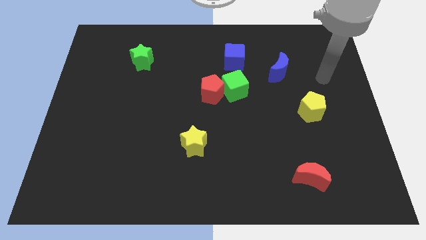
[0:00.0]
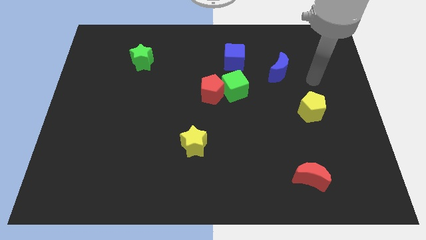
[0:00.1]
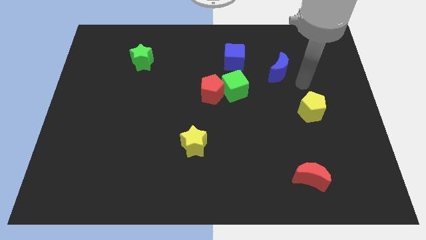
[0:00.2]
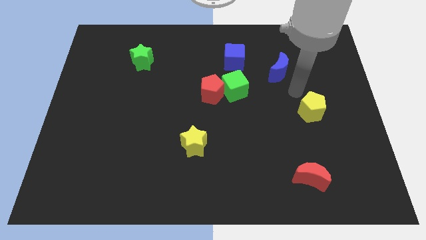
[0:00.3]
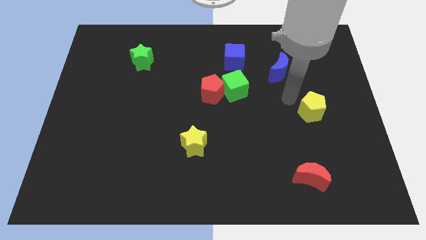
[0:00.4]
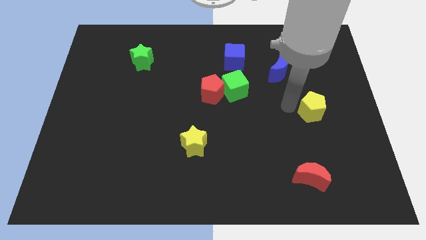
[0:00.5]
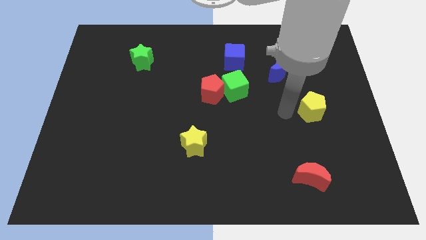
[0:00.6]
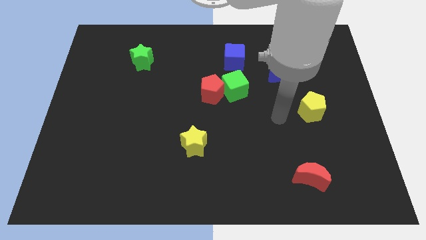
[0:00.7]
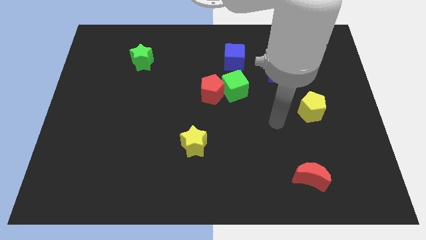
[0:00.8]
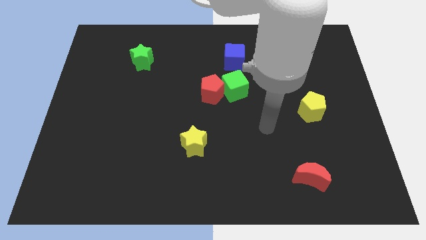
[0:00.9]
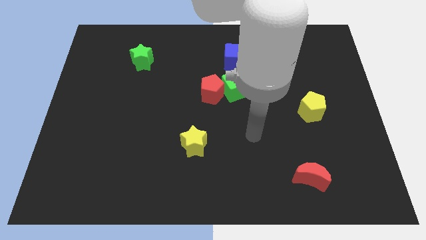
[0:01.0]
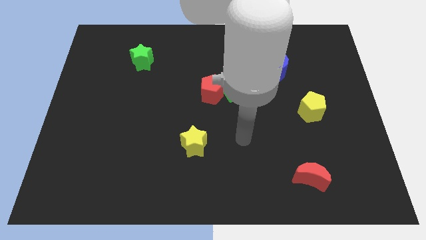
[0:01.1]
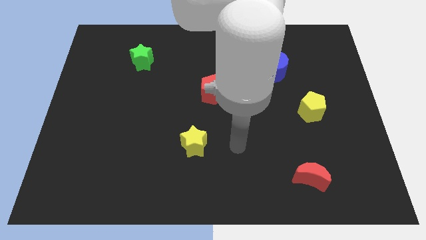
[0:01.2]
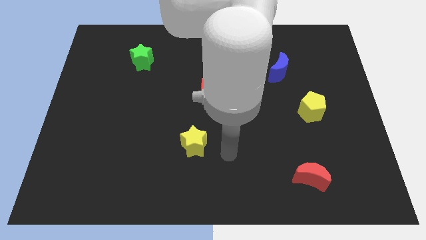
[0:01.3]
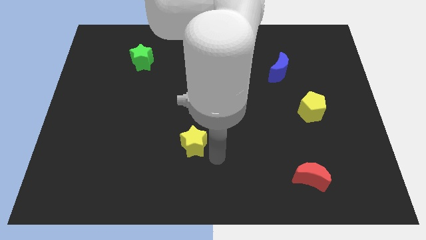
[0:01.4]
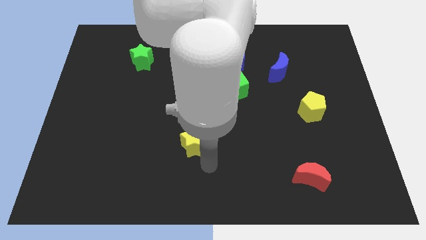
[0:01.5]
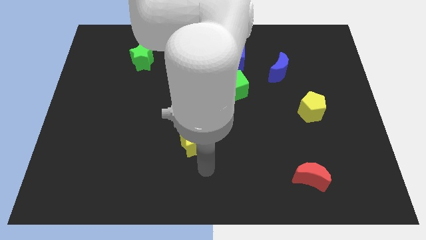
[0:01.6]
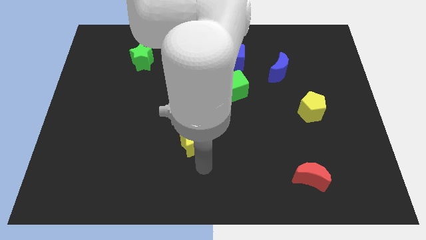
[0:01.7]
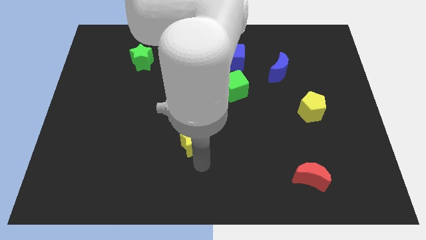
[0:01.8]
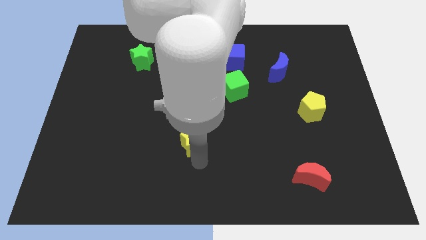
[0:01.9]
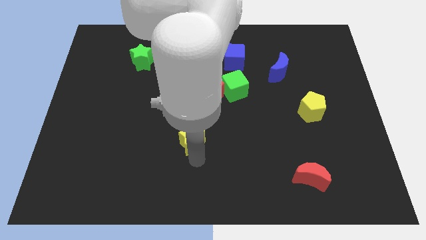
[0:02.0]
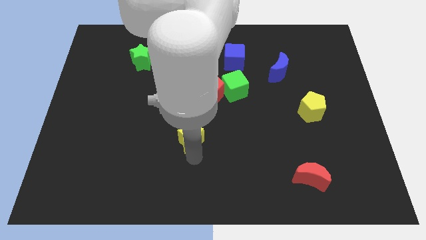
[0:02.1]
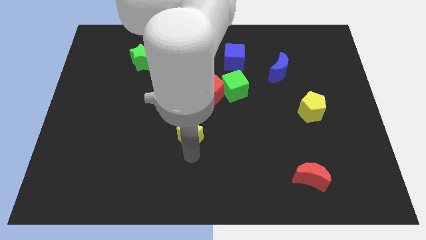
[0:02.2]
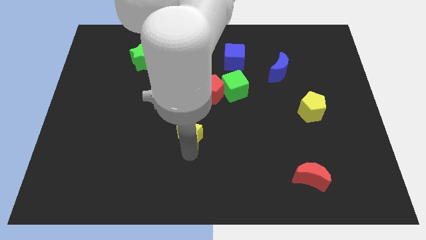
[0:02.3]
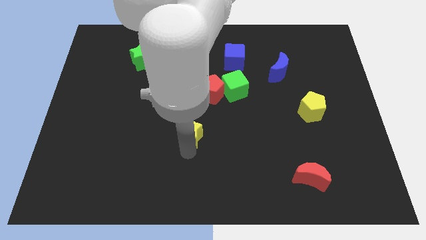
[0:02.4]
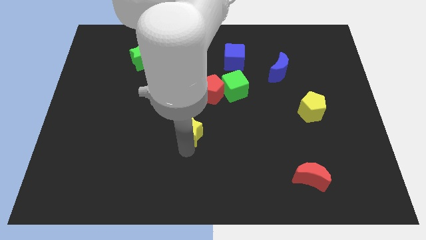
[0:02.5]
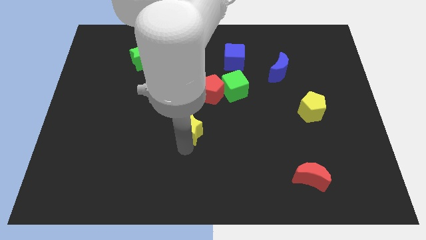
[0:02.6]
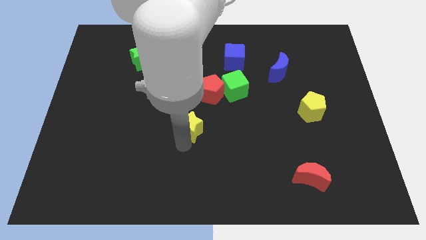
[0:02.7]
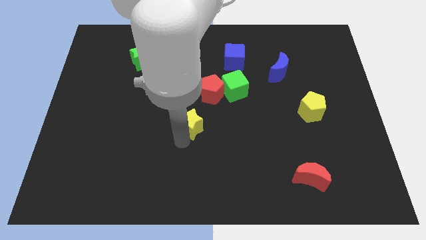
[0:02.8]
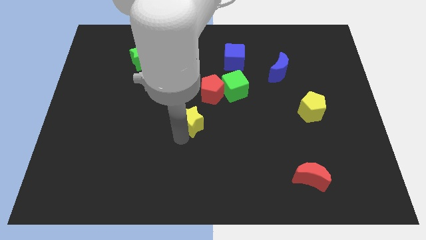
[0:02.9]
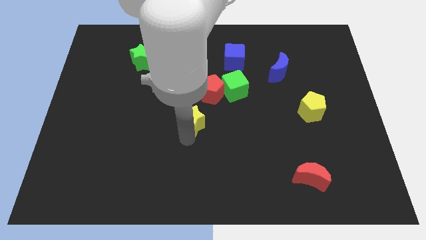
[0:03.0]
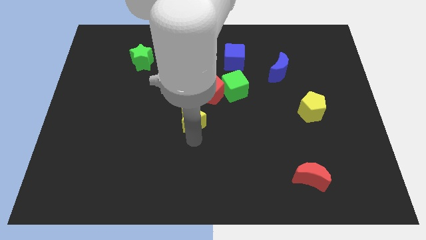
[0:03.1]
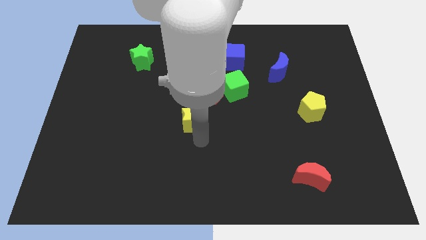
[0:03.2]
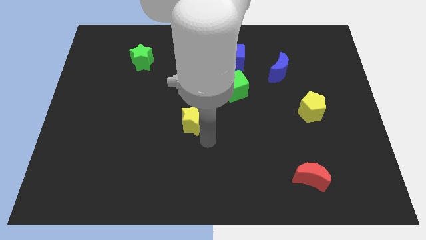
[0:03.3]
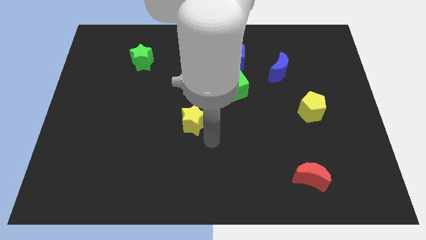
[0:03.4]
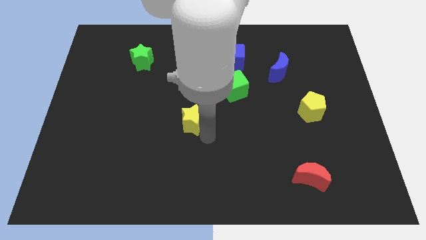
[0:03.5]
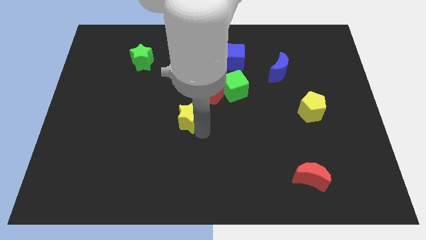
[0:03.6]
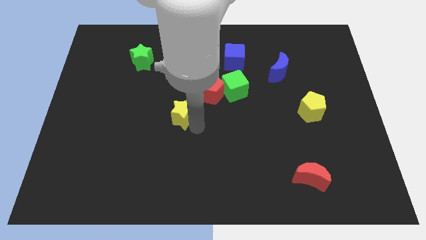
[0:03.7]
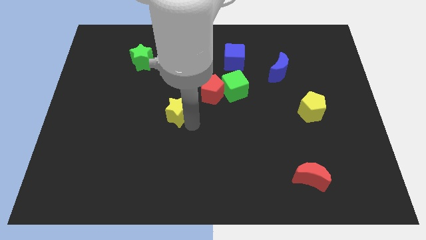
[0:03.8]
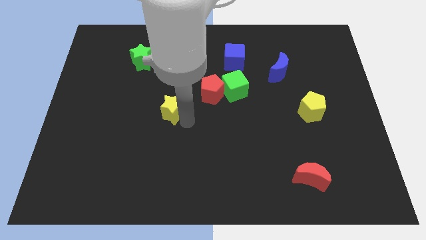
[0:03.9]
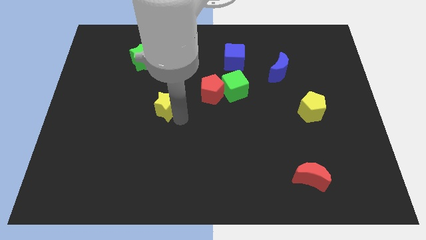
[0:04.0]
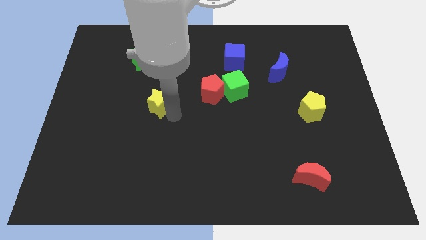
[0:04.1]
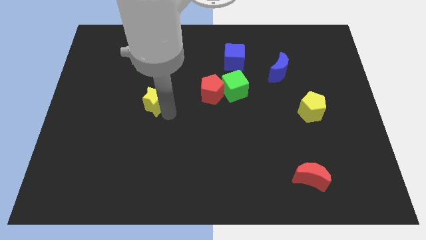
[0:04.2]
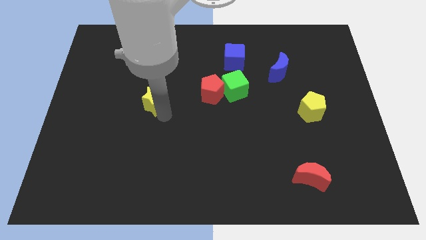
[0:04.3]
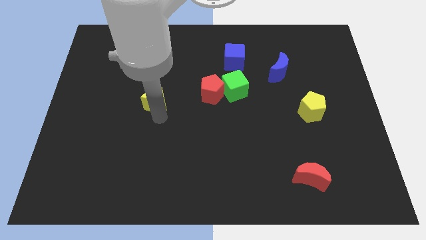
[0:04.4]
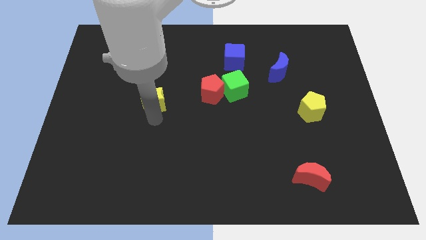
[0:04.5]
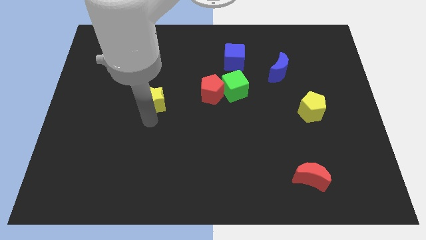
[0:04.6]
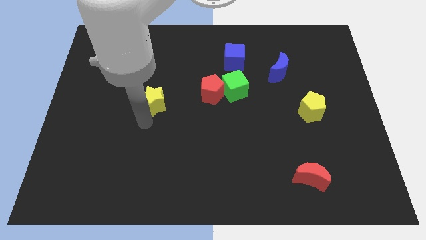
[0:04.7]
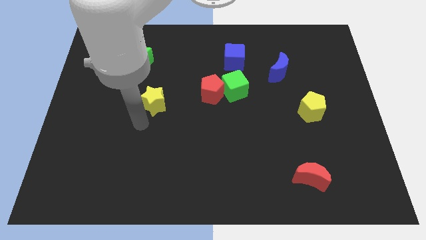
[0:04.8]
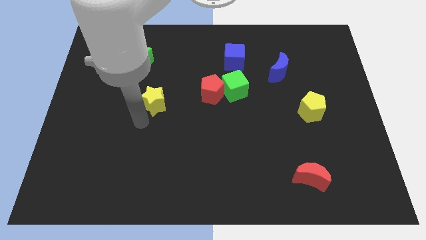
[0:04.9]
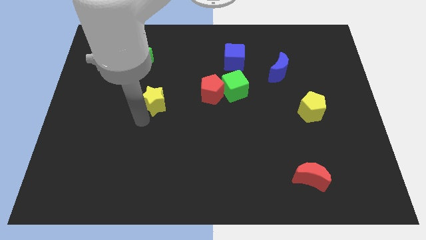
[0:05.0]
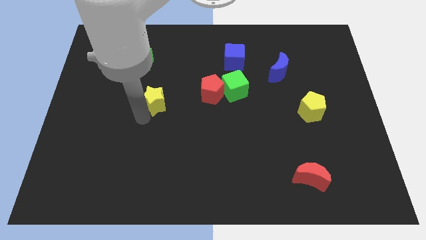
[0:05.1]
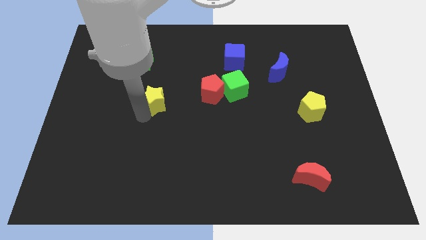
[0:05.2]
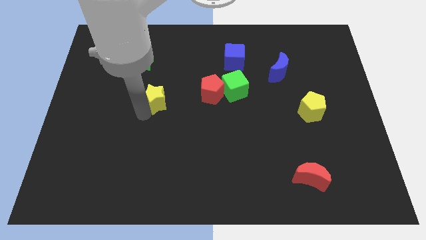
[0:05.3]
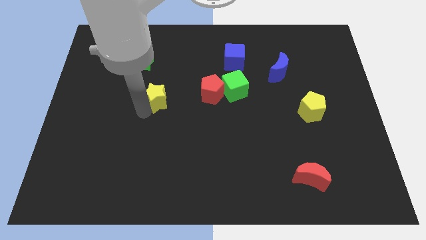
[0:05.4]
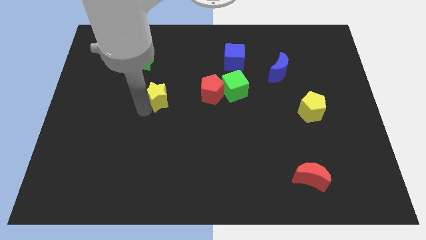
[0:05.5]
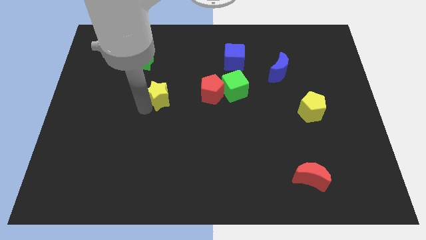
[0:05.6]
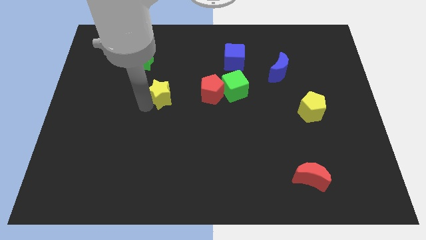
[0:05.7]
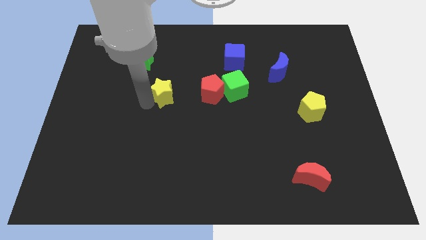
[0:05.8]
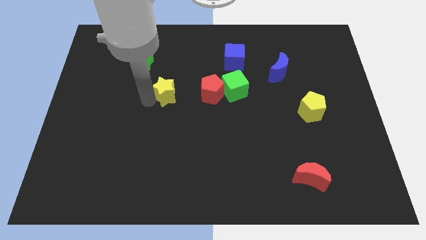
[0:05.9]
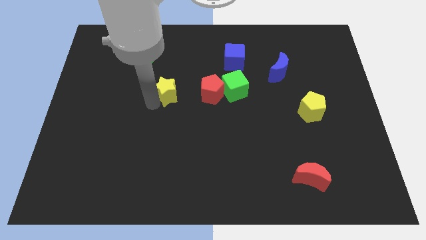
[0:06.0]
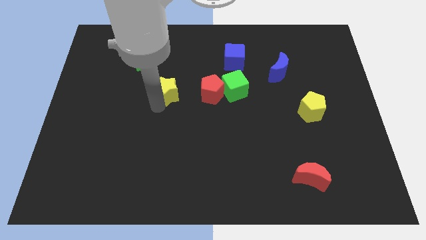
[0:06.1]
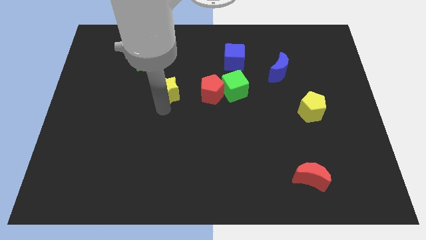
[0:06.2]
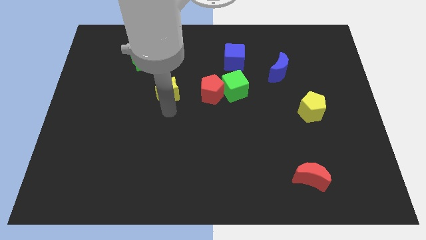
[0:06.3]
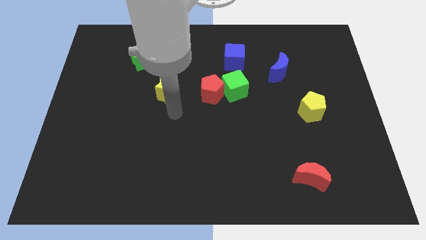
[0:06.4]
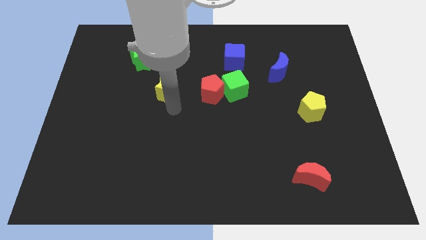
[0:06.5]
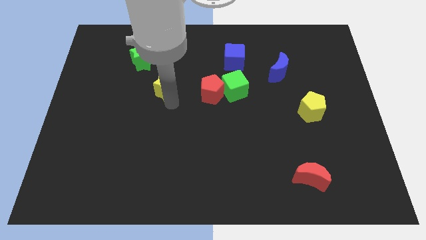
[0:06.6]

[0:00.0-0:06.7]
put the yellow star diagonally down and to the right of the green star
